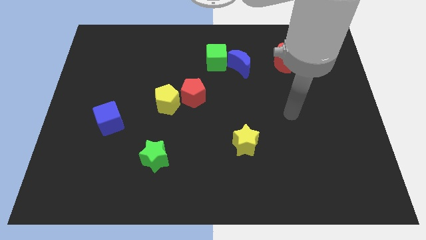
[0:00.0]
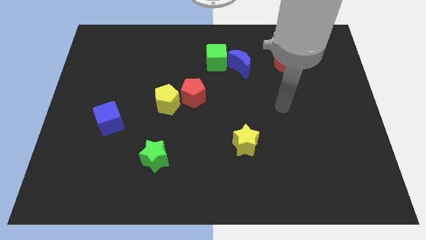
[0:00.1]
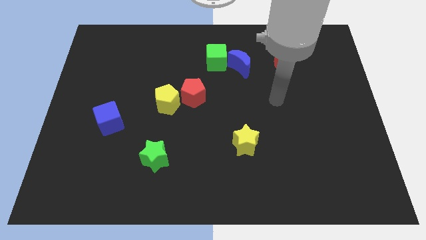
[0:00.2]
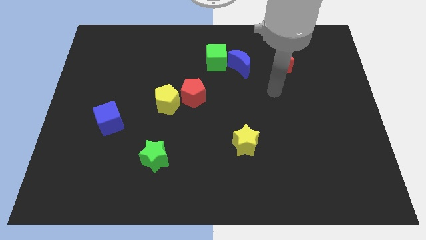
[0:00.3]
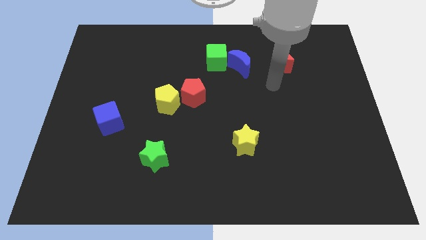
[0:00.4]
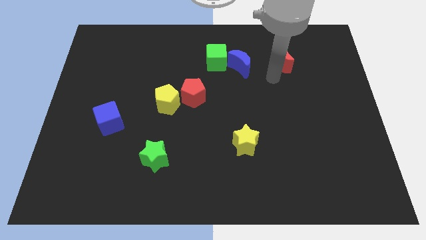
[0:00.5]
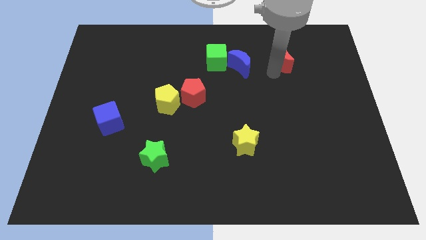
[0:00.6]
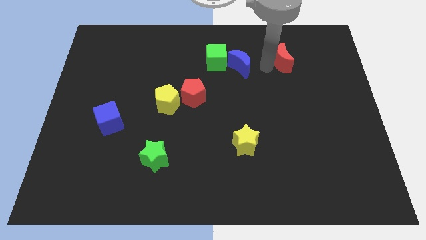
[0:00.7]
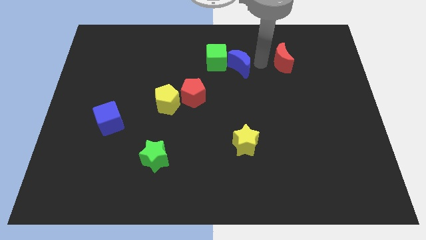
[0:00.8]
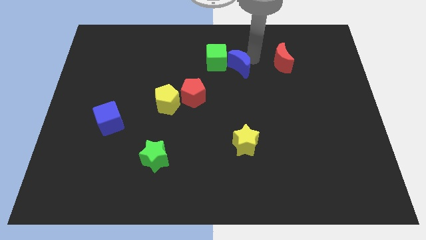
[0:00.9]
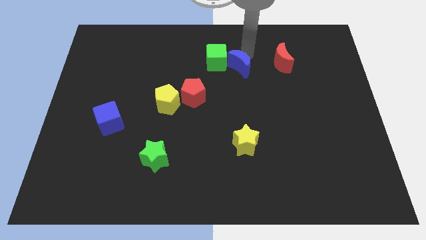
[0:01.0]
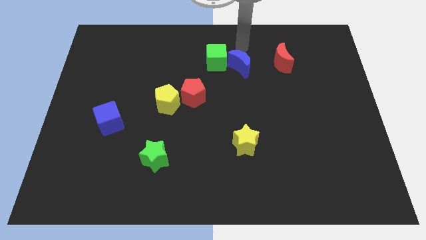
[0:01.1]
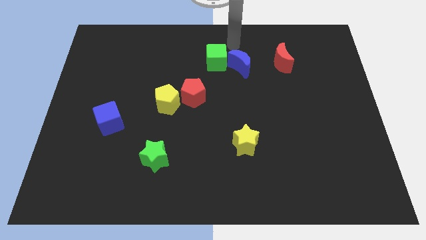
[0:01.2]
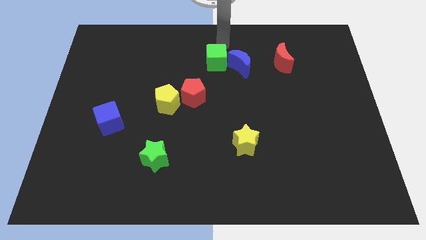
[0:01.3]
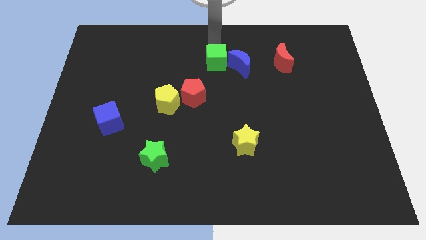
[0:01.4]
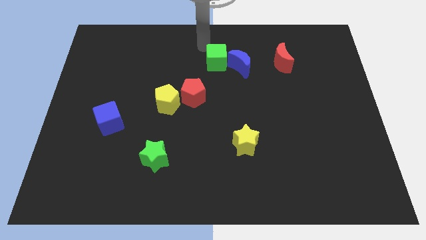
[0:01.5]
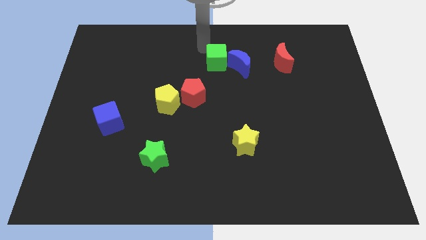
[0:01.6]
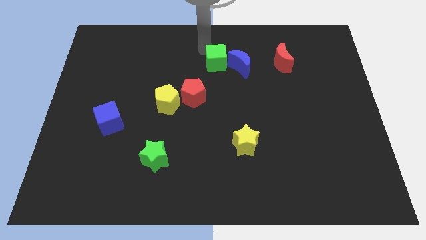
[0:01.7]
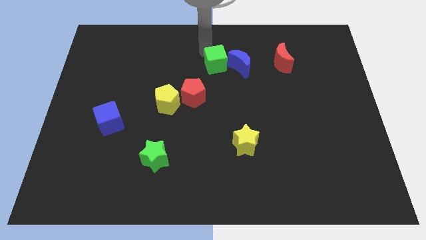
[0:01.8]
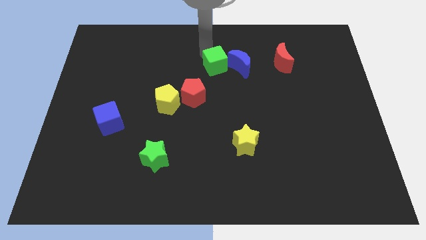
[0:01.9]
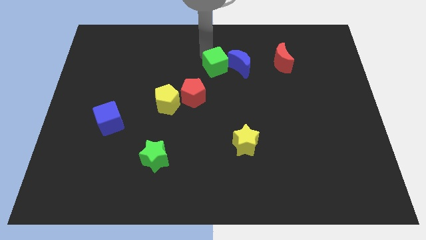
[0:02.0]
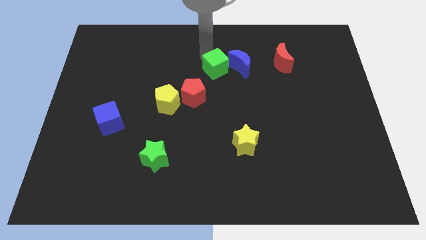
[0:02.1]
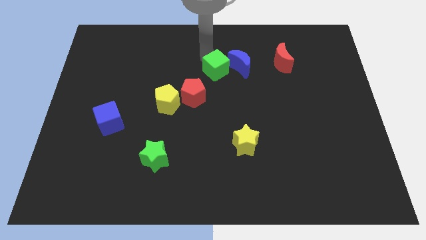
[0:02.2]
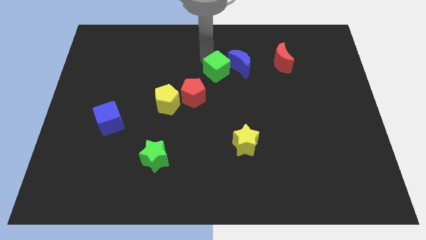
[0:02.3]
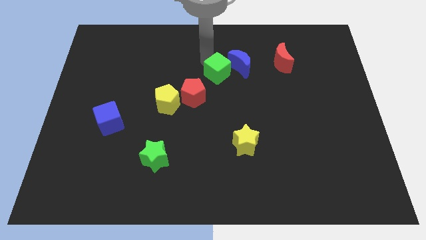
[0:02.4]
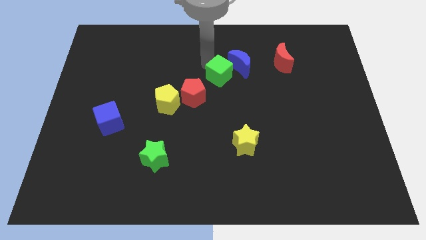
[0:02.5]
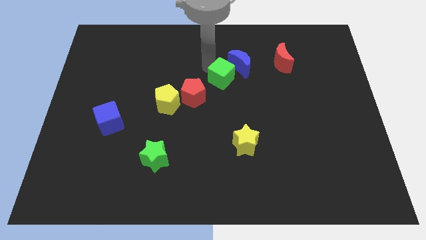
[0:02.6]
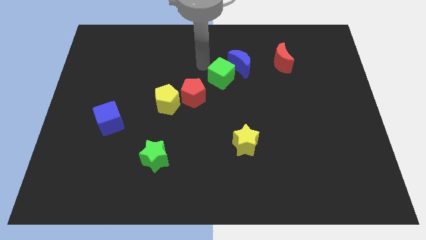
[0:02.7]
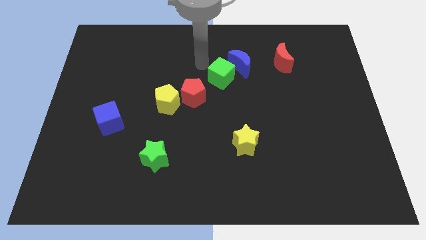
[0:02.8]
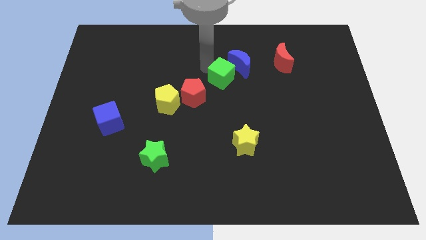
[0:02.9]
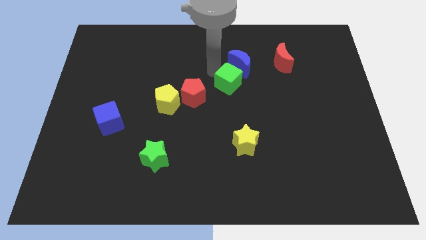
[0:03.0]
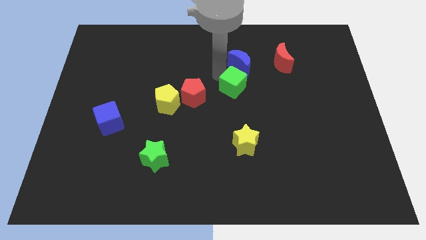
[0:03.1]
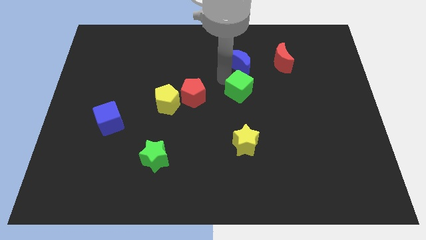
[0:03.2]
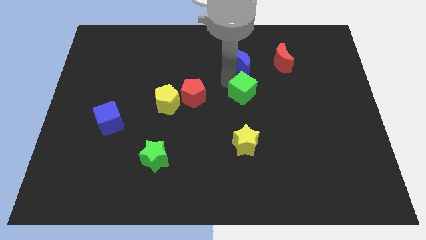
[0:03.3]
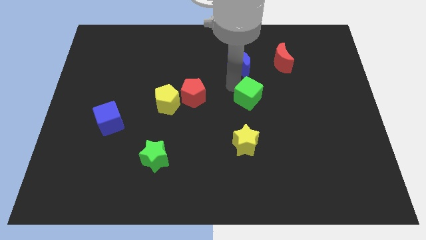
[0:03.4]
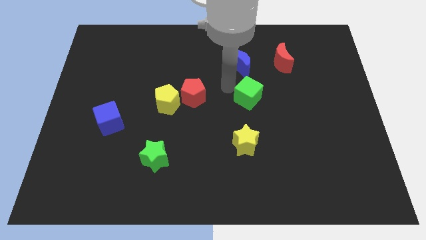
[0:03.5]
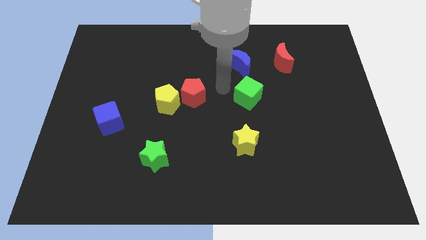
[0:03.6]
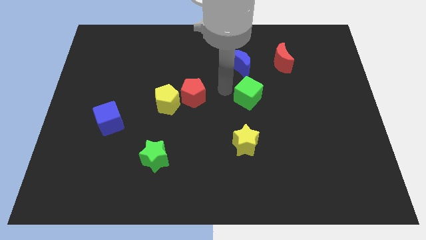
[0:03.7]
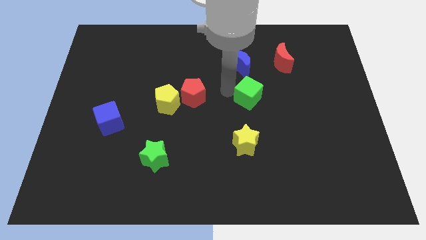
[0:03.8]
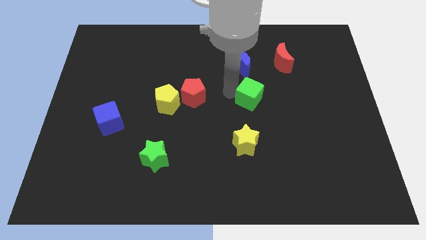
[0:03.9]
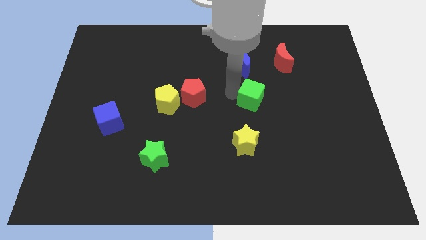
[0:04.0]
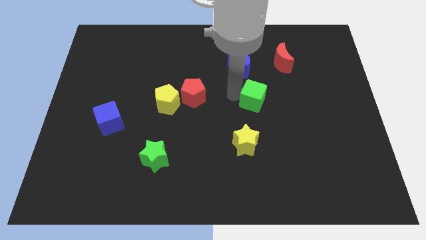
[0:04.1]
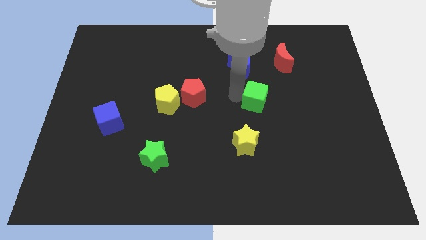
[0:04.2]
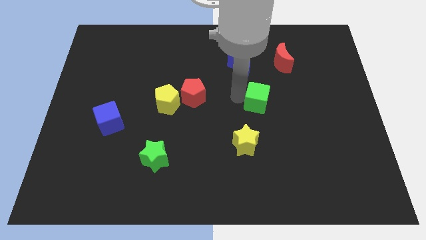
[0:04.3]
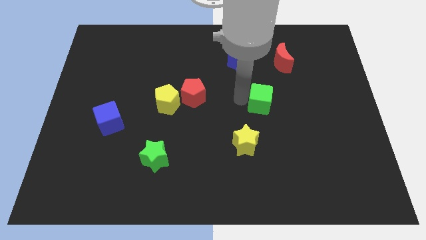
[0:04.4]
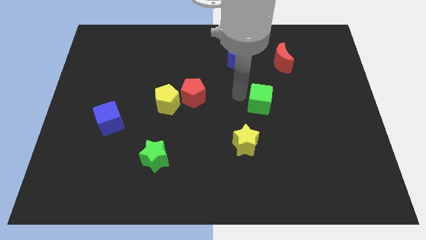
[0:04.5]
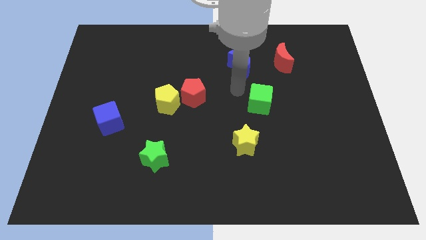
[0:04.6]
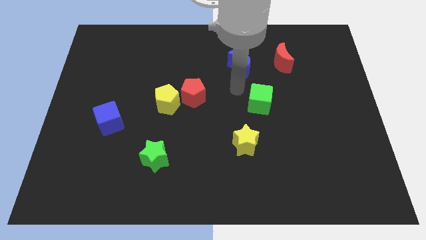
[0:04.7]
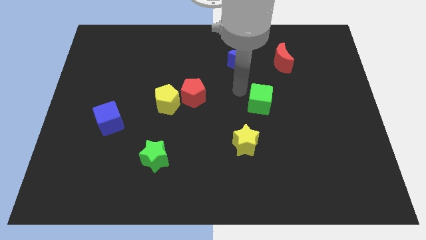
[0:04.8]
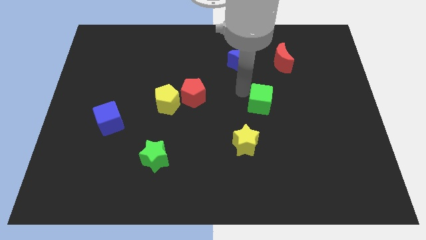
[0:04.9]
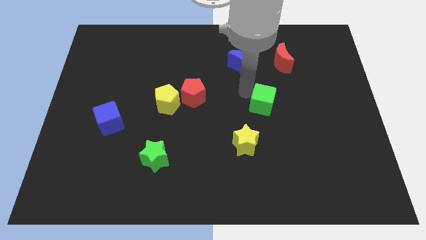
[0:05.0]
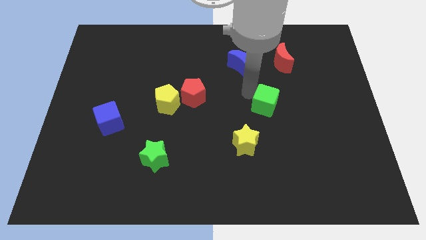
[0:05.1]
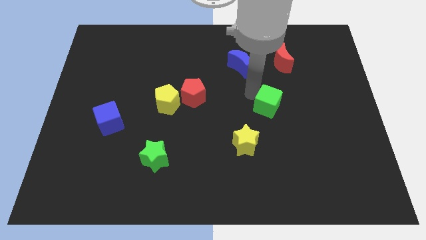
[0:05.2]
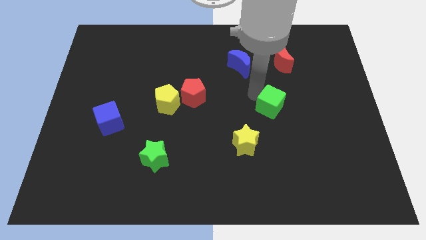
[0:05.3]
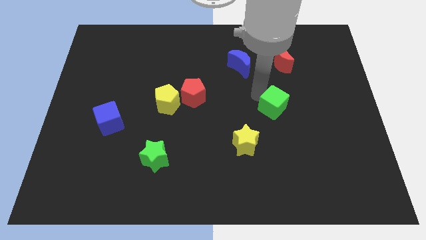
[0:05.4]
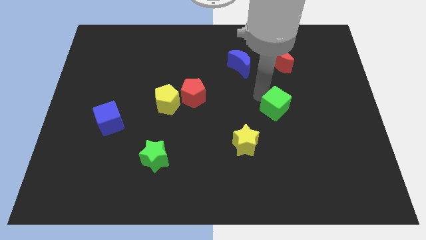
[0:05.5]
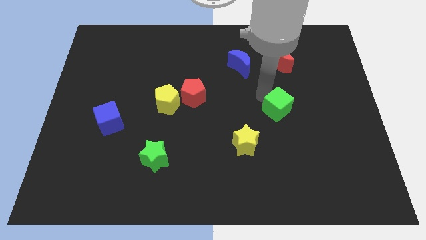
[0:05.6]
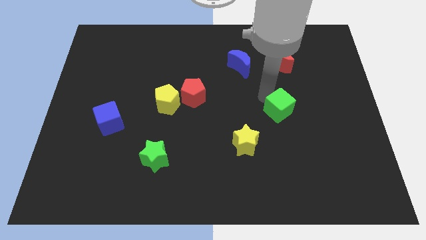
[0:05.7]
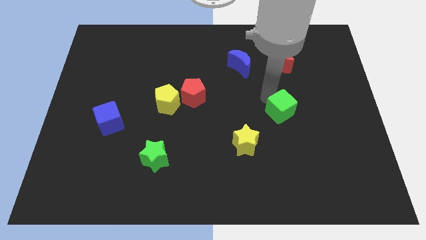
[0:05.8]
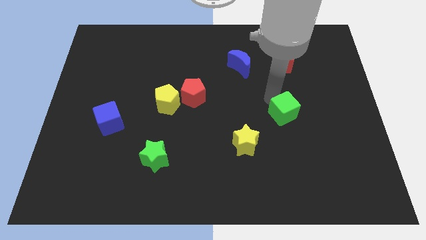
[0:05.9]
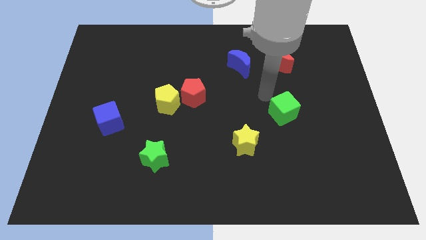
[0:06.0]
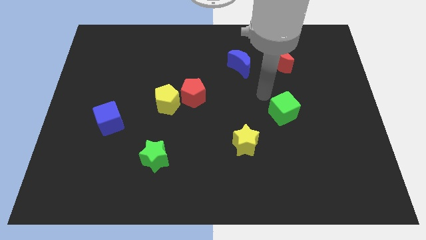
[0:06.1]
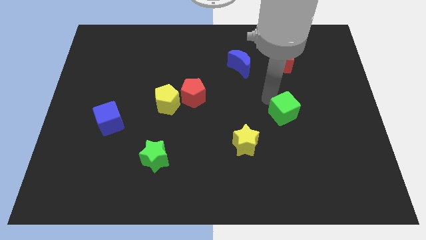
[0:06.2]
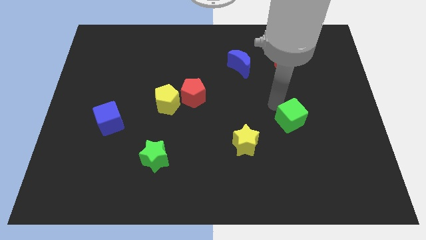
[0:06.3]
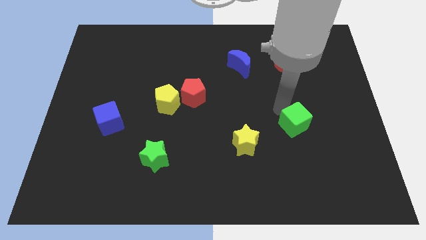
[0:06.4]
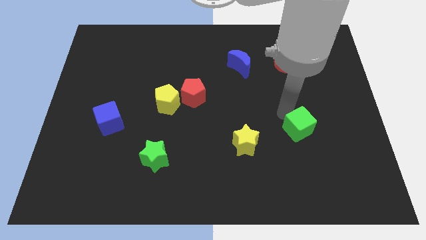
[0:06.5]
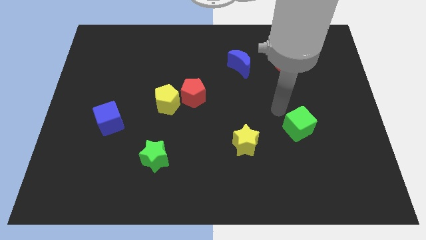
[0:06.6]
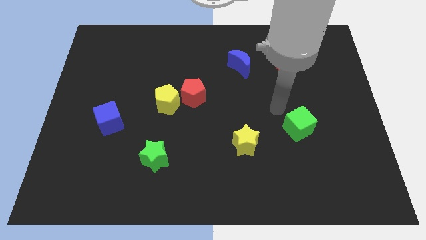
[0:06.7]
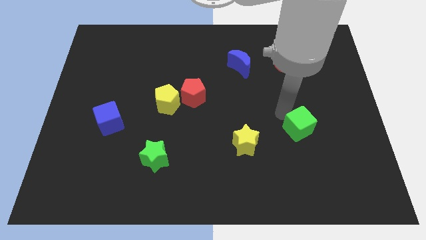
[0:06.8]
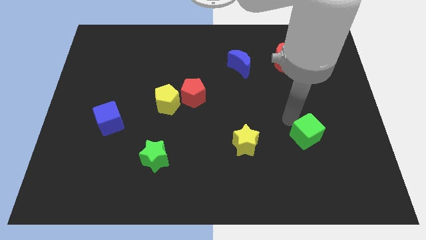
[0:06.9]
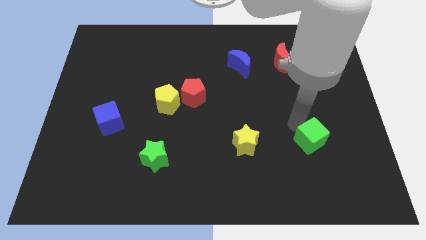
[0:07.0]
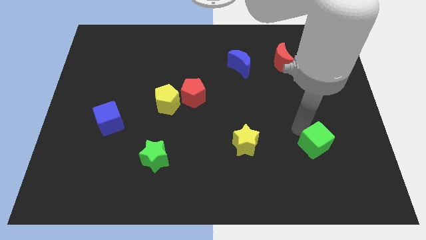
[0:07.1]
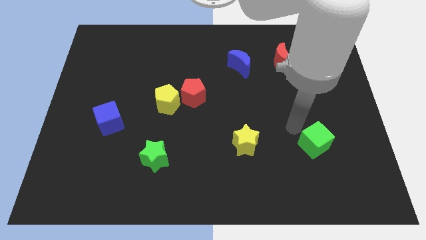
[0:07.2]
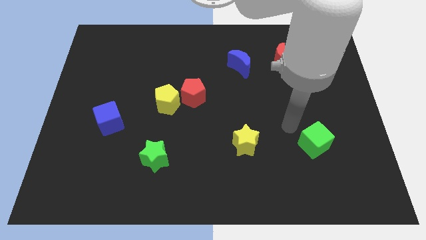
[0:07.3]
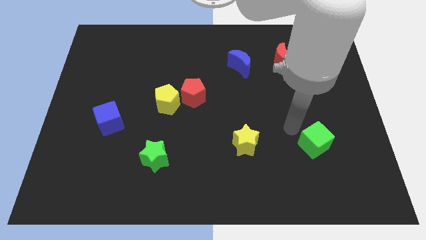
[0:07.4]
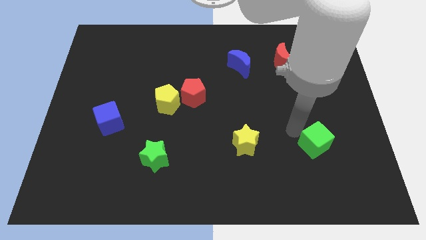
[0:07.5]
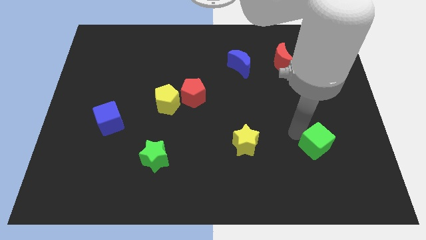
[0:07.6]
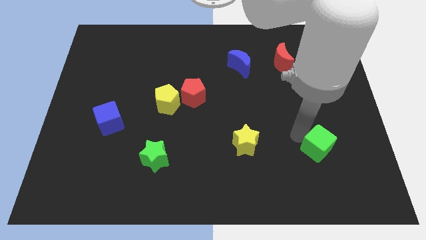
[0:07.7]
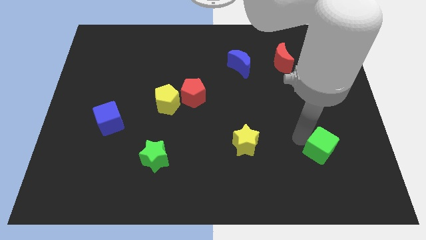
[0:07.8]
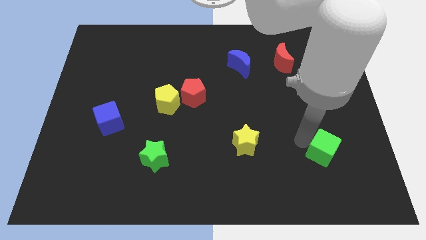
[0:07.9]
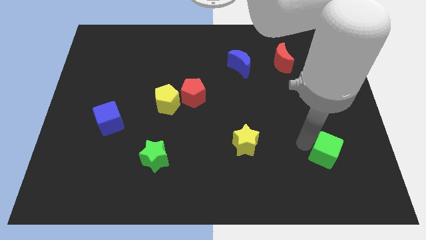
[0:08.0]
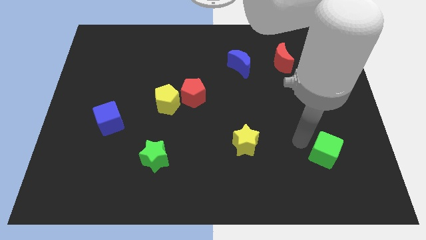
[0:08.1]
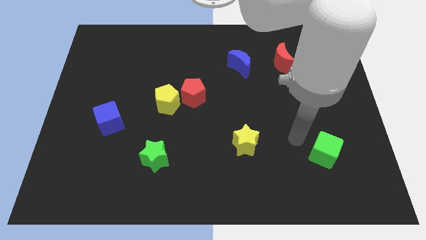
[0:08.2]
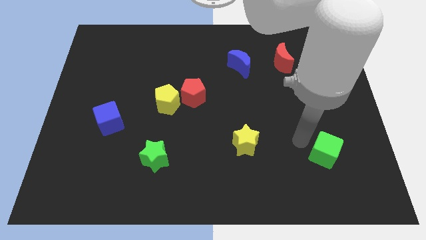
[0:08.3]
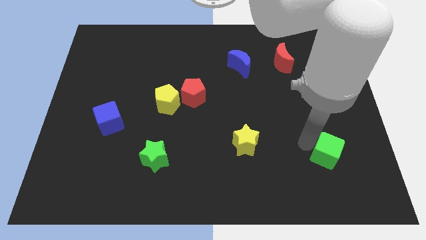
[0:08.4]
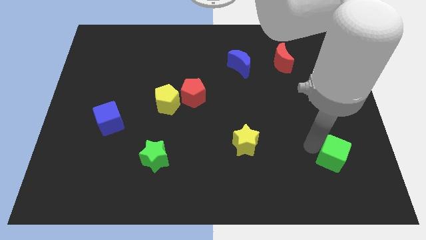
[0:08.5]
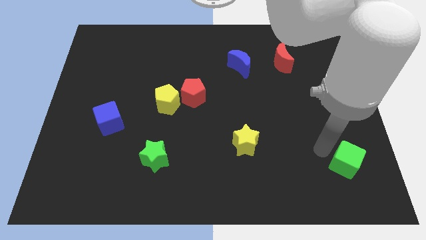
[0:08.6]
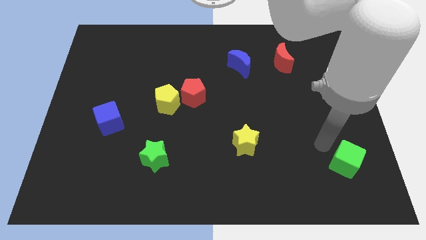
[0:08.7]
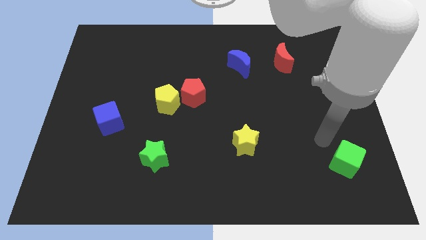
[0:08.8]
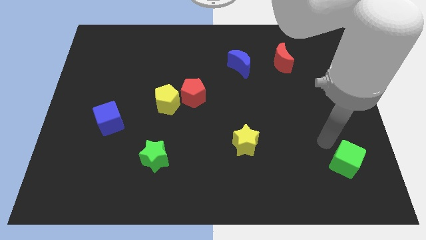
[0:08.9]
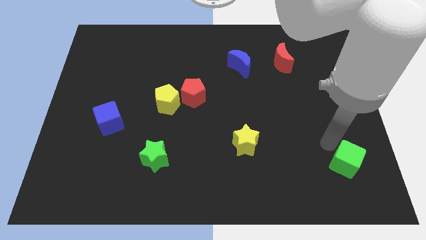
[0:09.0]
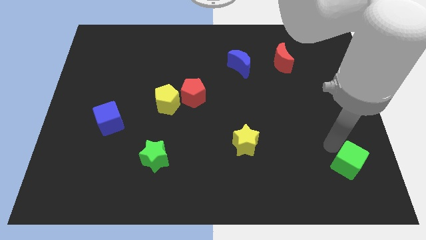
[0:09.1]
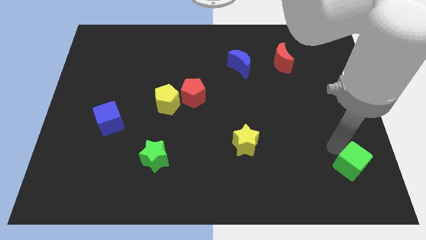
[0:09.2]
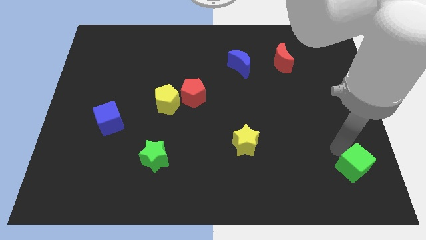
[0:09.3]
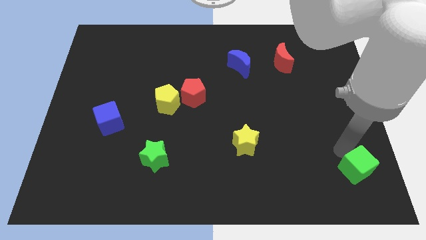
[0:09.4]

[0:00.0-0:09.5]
slide the green cube to the bottom right corner
